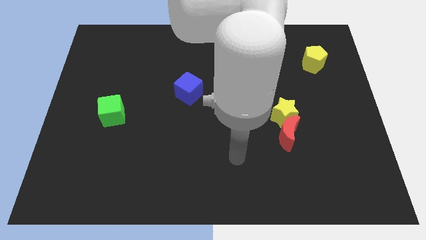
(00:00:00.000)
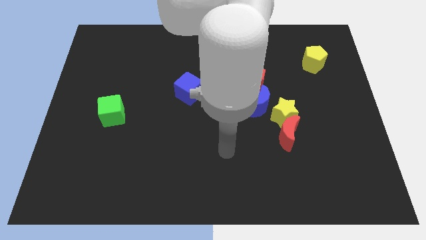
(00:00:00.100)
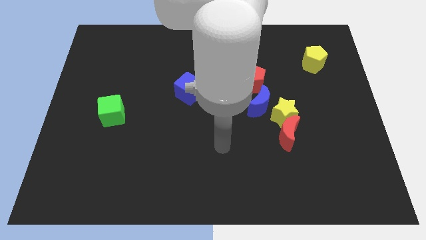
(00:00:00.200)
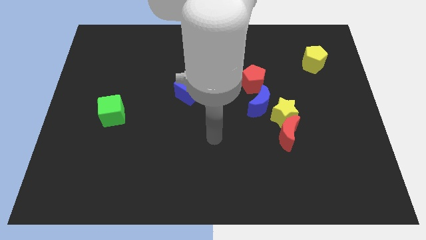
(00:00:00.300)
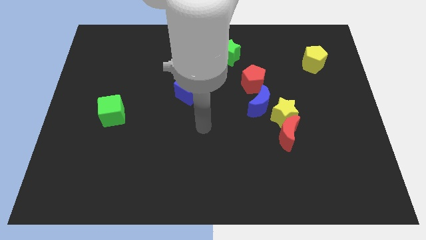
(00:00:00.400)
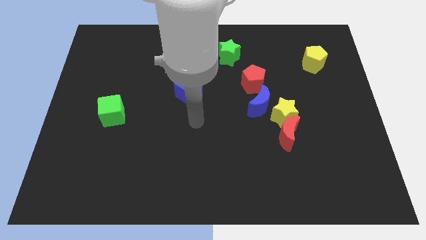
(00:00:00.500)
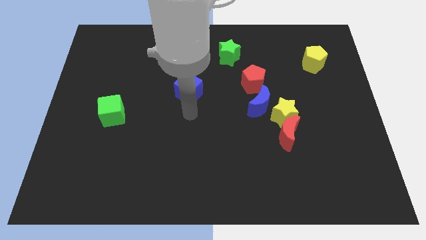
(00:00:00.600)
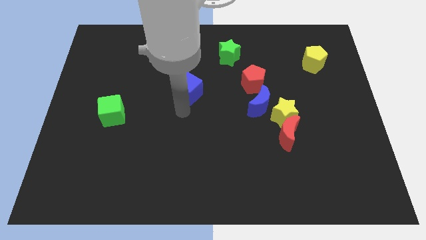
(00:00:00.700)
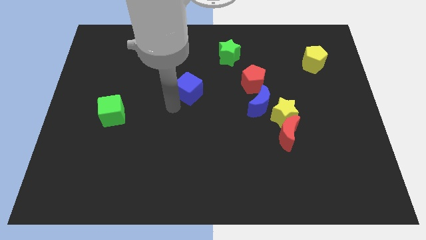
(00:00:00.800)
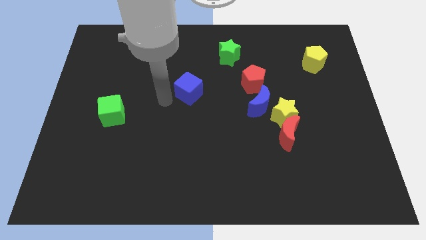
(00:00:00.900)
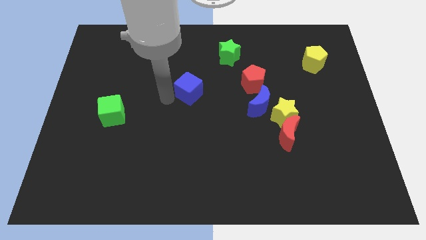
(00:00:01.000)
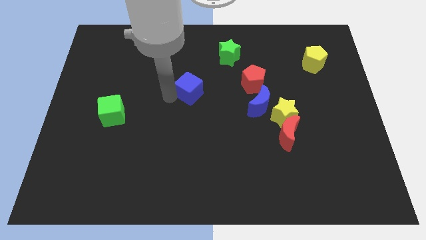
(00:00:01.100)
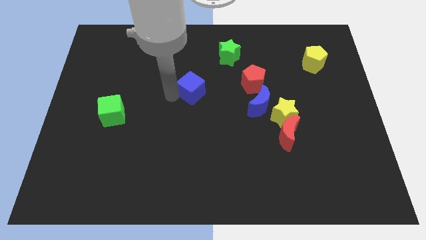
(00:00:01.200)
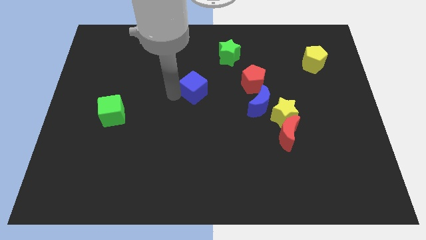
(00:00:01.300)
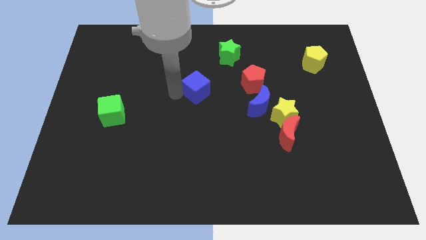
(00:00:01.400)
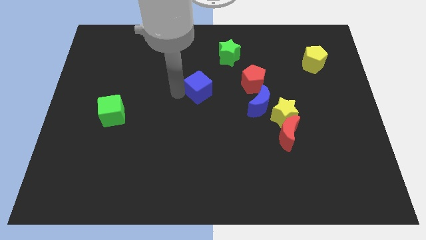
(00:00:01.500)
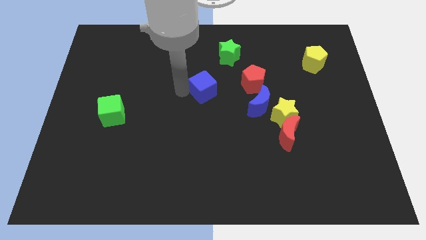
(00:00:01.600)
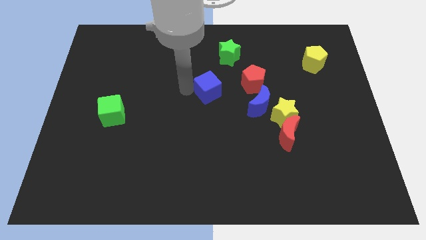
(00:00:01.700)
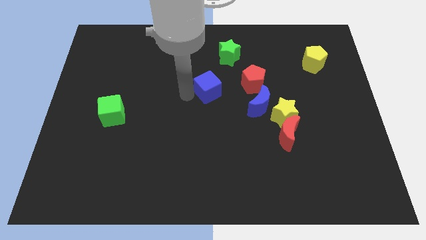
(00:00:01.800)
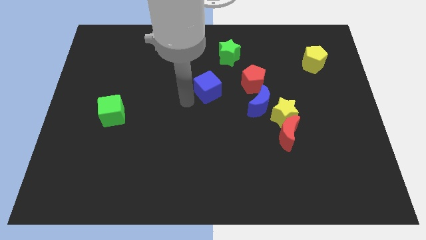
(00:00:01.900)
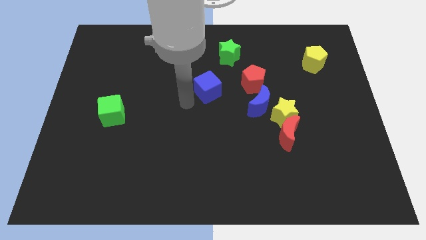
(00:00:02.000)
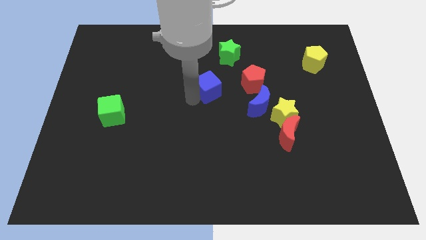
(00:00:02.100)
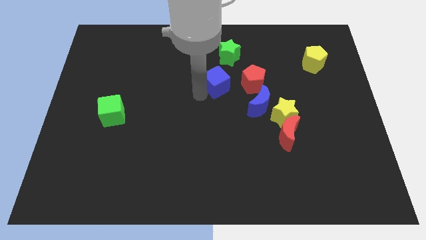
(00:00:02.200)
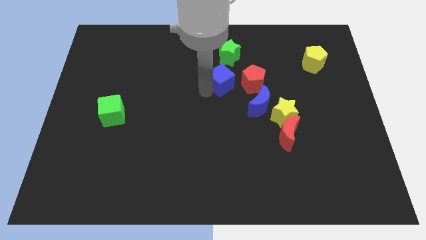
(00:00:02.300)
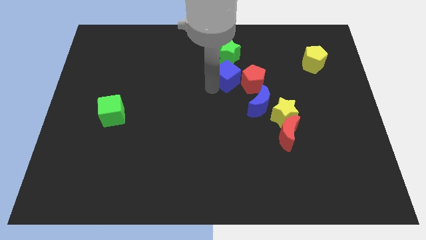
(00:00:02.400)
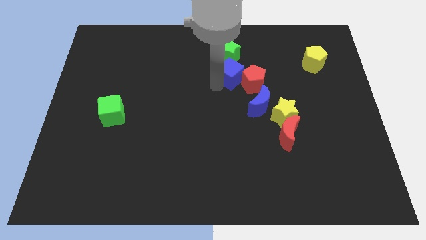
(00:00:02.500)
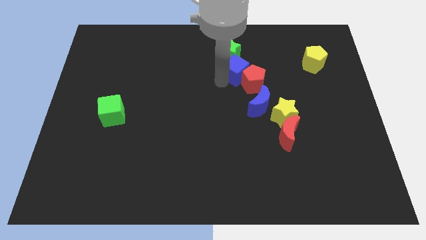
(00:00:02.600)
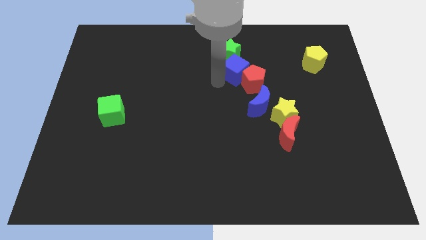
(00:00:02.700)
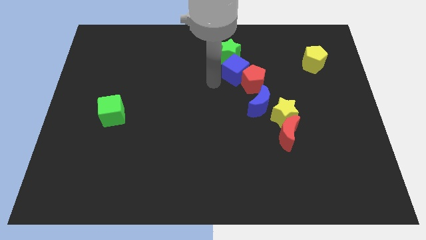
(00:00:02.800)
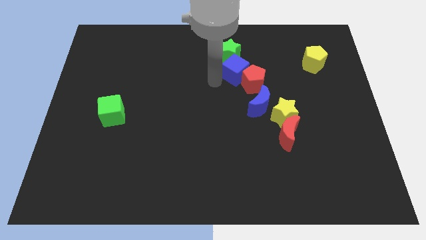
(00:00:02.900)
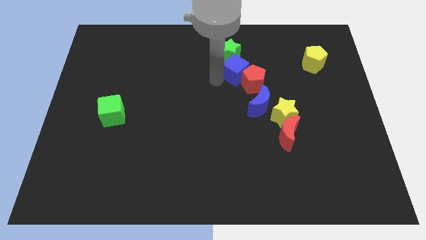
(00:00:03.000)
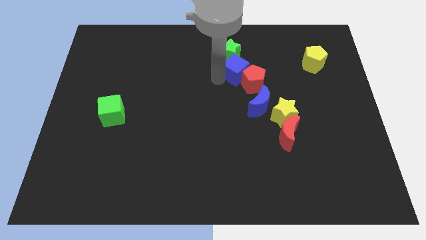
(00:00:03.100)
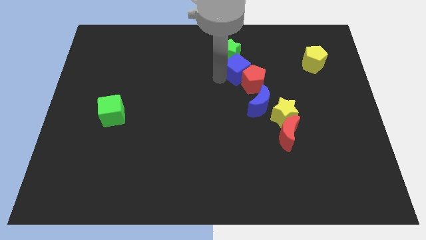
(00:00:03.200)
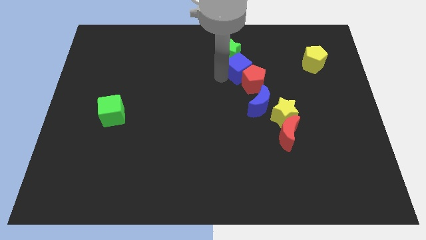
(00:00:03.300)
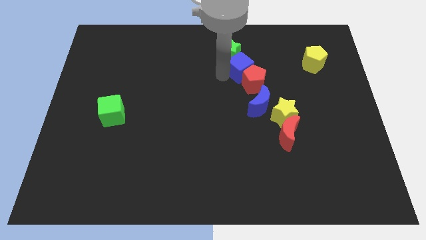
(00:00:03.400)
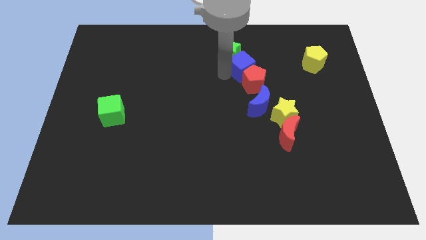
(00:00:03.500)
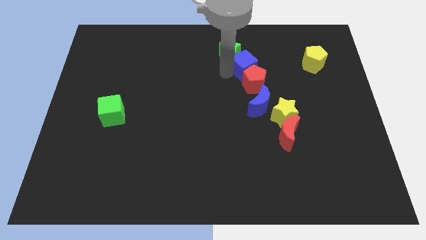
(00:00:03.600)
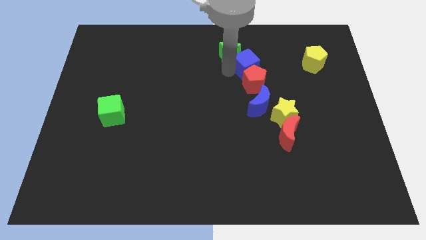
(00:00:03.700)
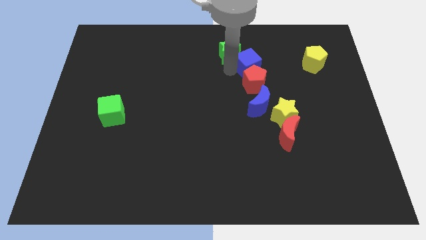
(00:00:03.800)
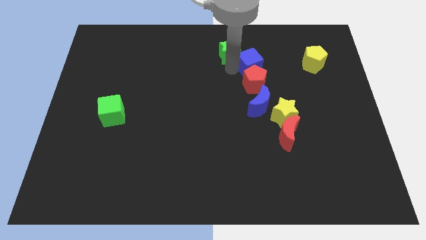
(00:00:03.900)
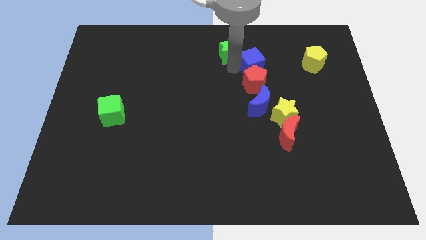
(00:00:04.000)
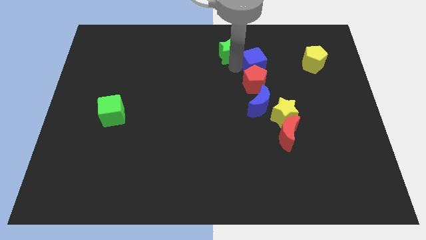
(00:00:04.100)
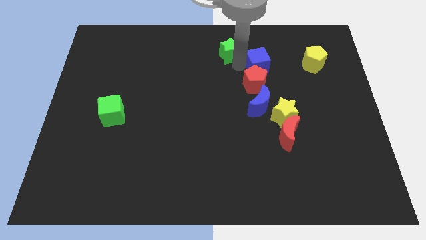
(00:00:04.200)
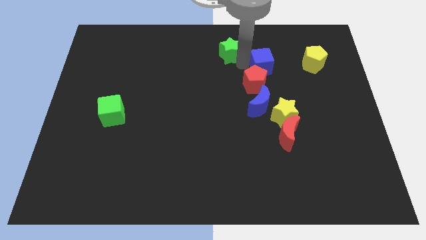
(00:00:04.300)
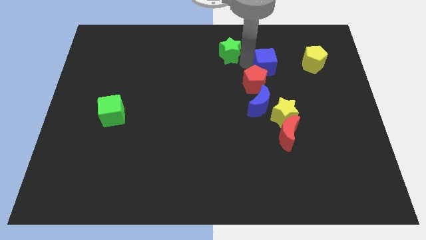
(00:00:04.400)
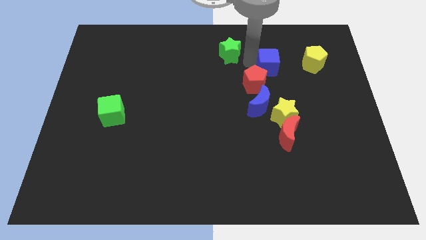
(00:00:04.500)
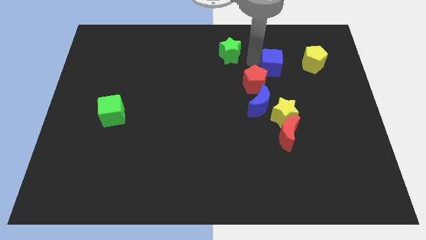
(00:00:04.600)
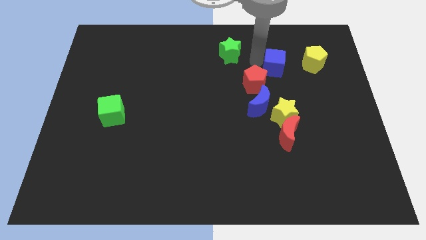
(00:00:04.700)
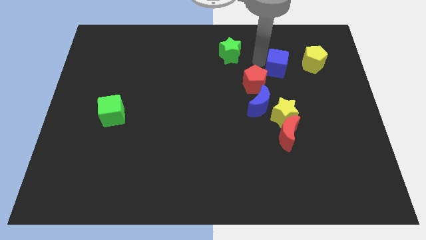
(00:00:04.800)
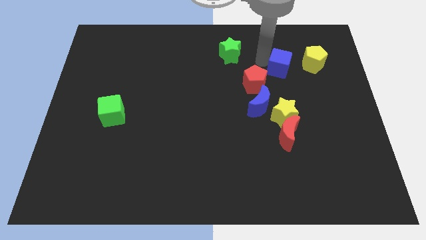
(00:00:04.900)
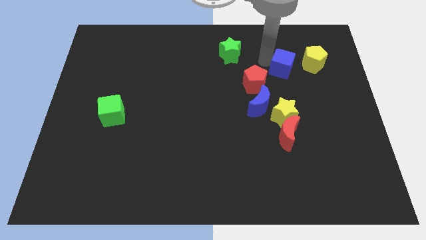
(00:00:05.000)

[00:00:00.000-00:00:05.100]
slide the blue cube diagonally down and to the left of the yellow pentagon

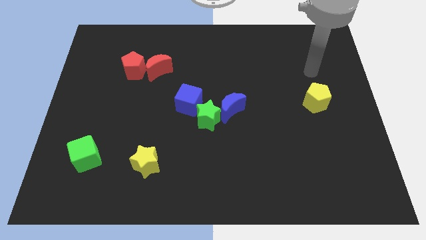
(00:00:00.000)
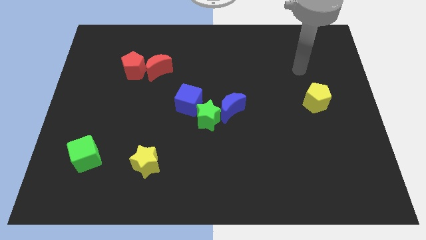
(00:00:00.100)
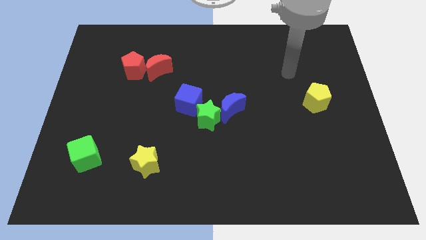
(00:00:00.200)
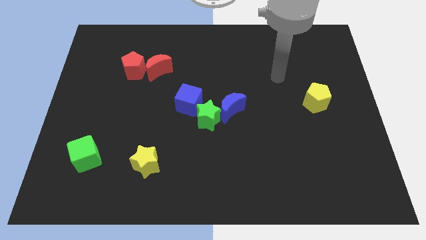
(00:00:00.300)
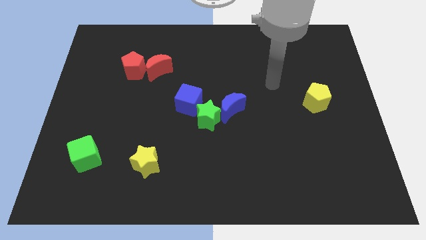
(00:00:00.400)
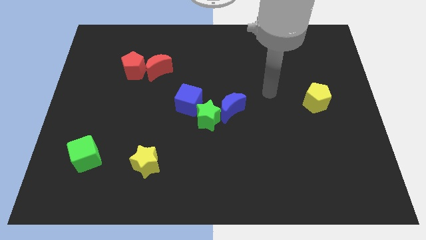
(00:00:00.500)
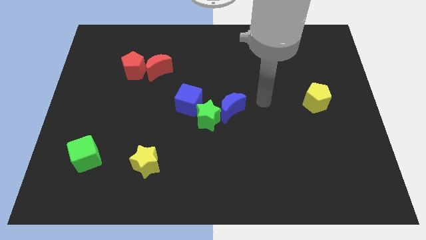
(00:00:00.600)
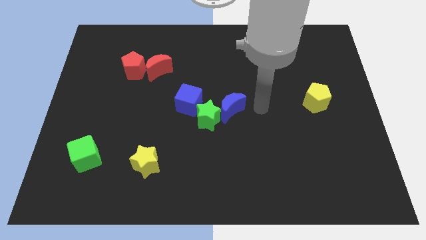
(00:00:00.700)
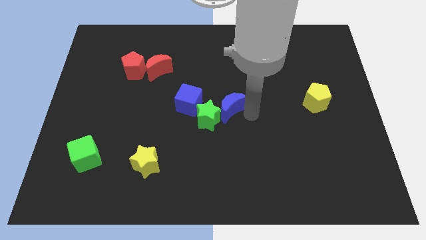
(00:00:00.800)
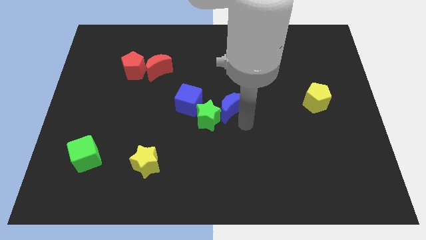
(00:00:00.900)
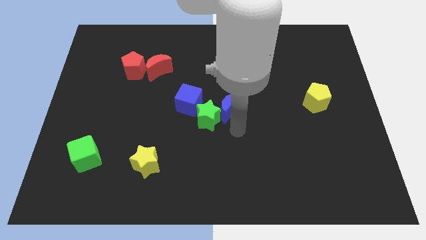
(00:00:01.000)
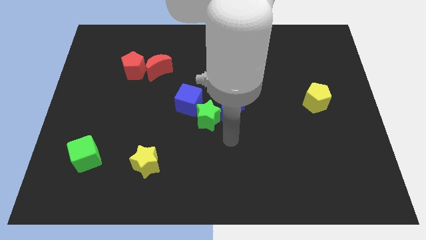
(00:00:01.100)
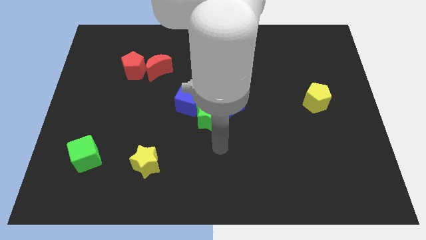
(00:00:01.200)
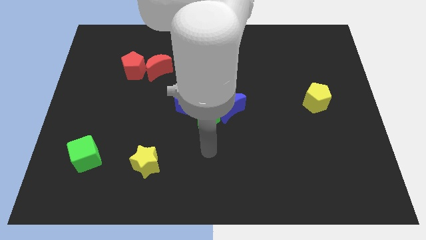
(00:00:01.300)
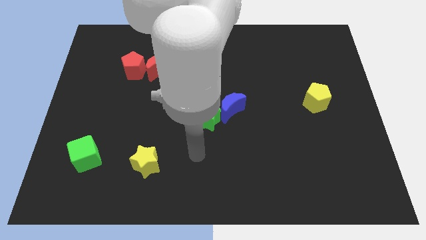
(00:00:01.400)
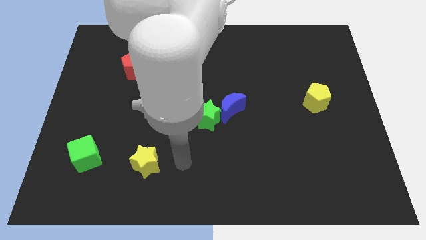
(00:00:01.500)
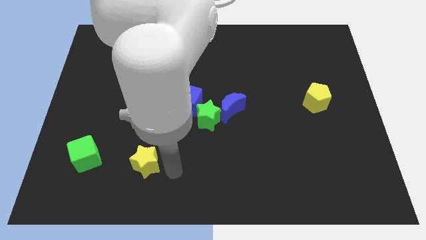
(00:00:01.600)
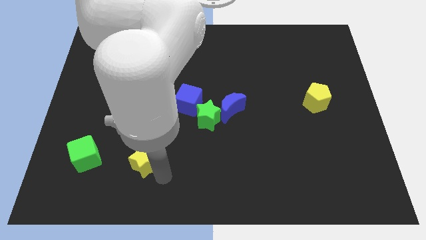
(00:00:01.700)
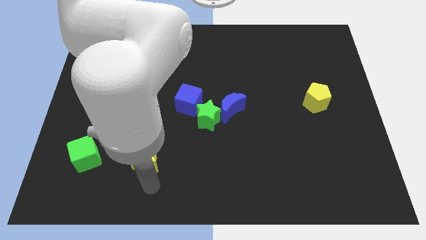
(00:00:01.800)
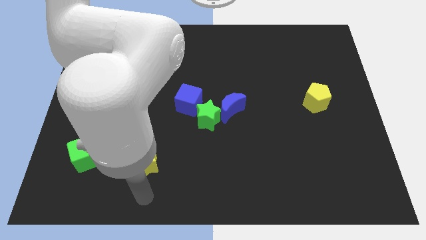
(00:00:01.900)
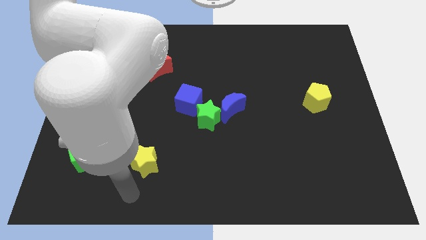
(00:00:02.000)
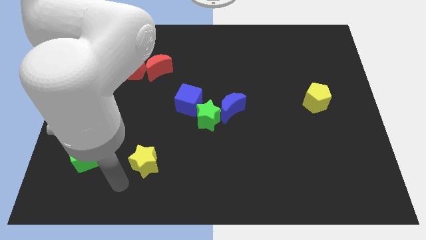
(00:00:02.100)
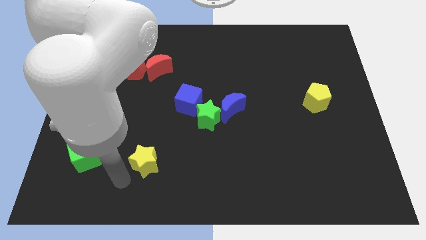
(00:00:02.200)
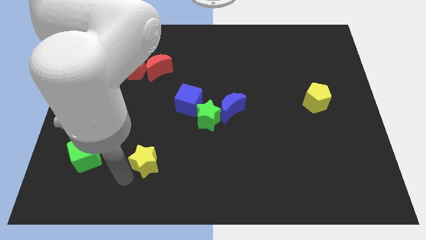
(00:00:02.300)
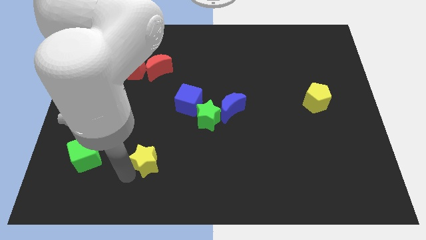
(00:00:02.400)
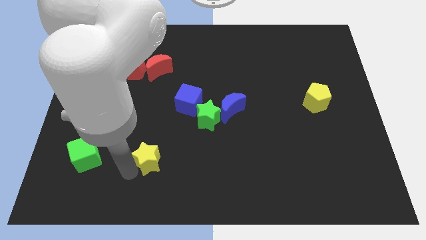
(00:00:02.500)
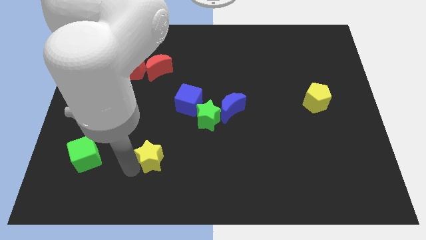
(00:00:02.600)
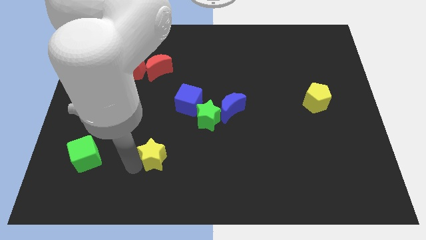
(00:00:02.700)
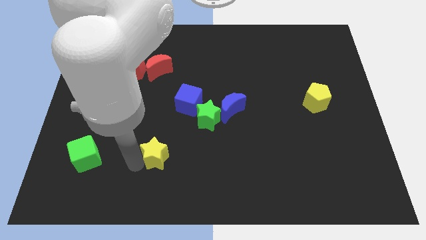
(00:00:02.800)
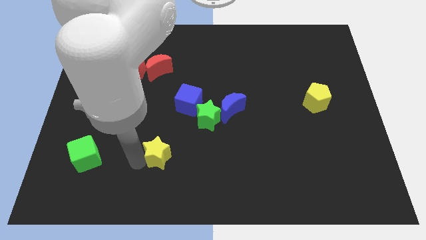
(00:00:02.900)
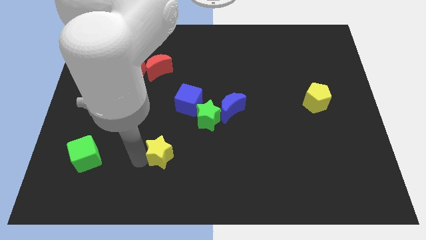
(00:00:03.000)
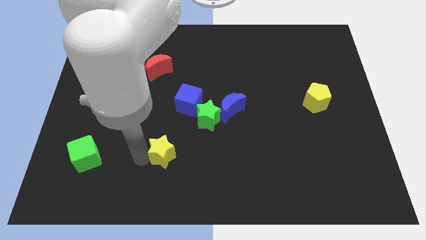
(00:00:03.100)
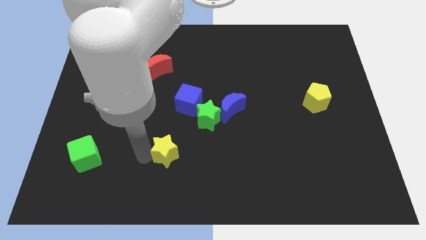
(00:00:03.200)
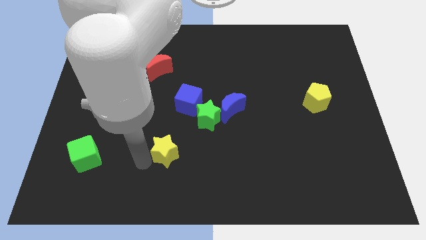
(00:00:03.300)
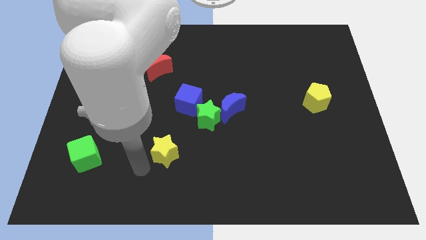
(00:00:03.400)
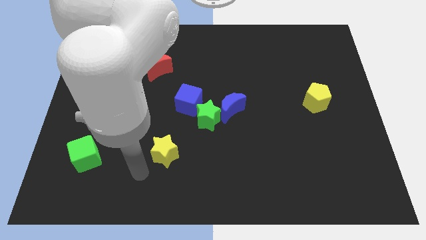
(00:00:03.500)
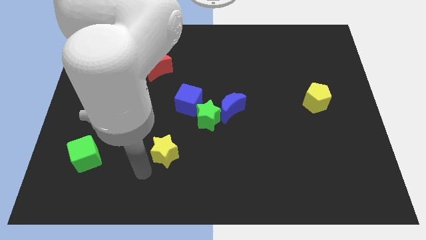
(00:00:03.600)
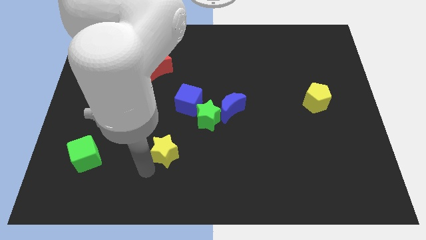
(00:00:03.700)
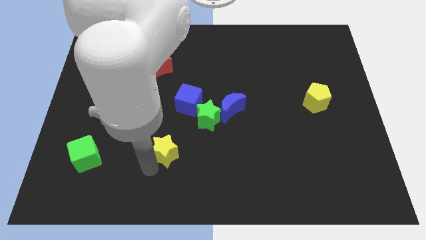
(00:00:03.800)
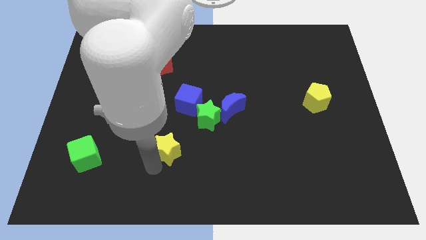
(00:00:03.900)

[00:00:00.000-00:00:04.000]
slide the yellow star to the bottom left side of the green star
